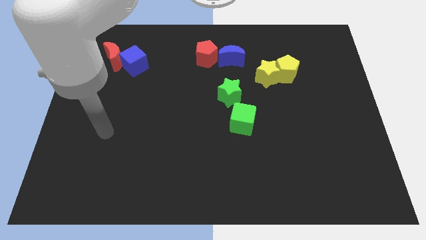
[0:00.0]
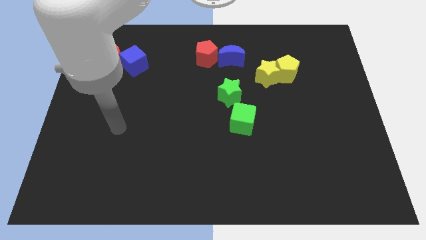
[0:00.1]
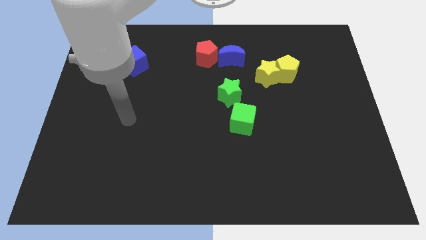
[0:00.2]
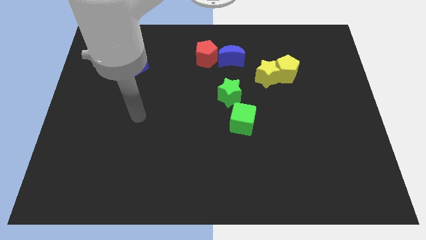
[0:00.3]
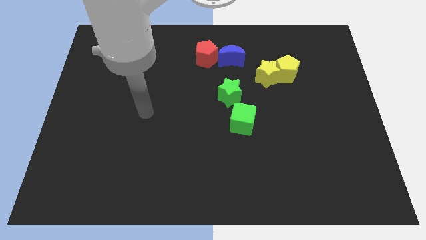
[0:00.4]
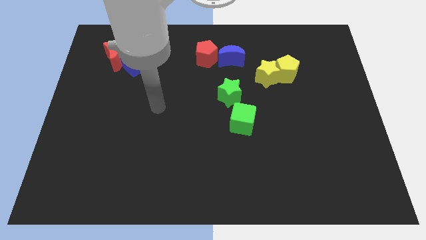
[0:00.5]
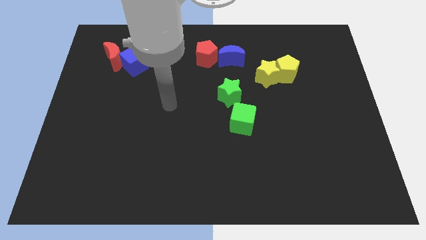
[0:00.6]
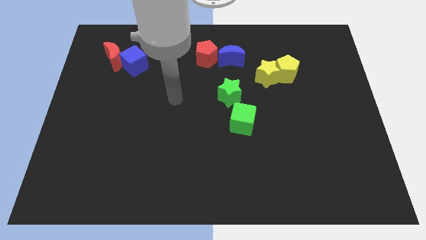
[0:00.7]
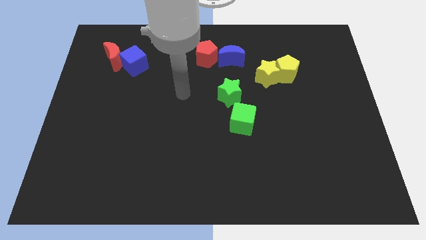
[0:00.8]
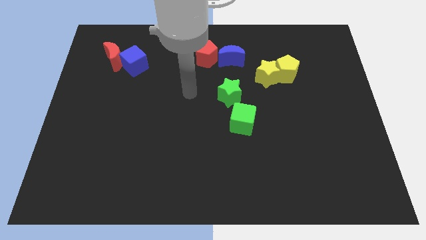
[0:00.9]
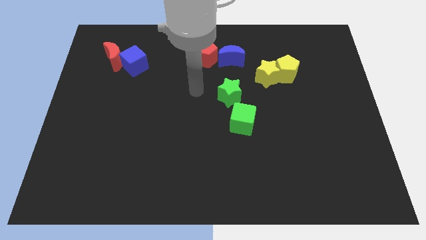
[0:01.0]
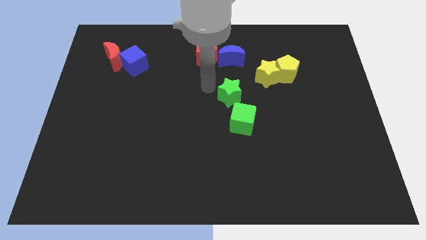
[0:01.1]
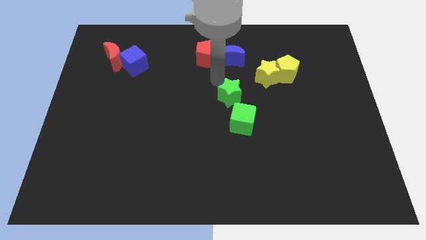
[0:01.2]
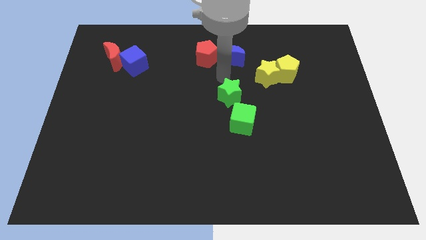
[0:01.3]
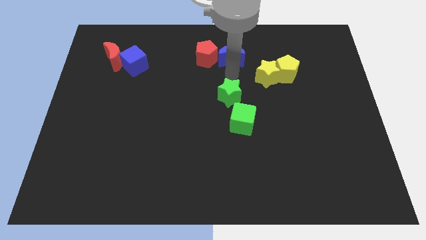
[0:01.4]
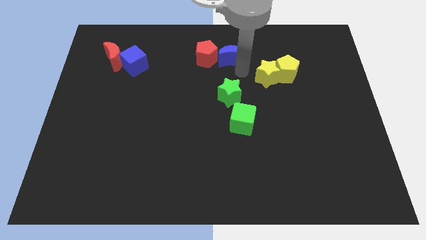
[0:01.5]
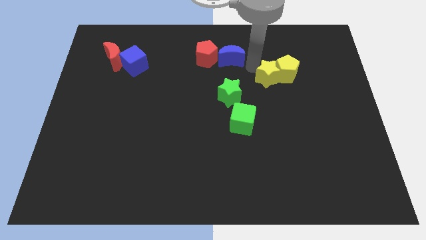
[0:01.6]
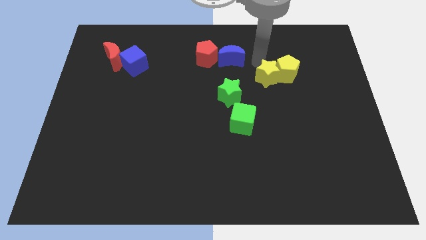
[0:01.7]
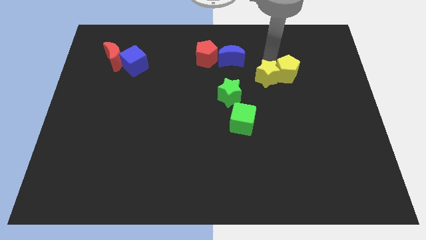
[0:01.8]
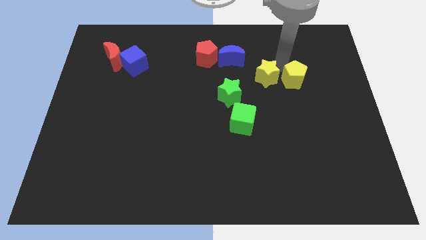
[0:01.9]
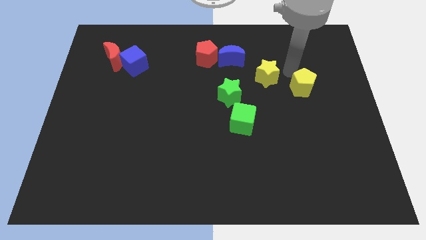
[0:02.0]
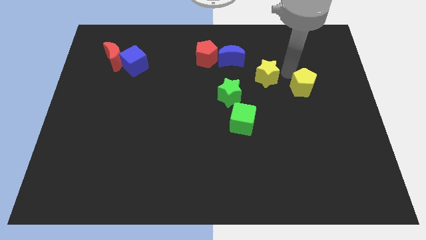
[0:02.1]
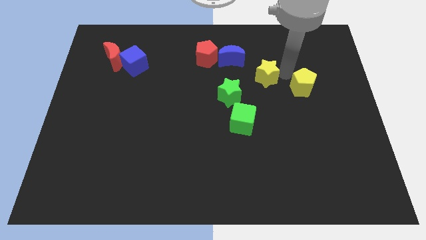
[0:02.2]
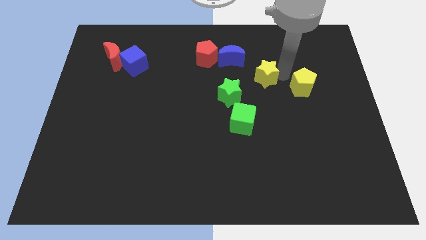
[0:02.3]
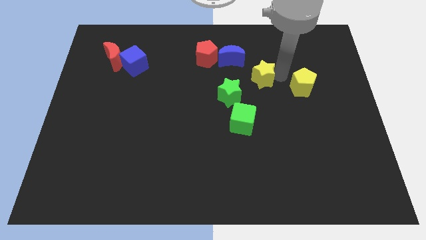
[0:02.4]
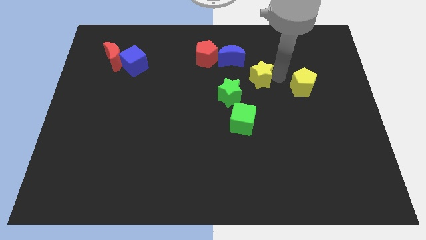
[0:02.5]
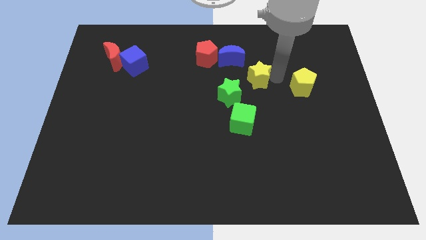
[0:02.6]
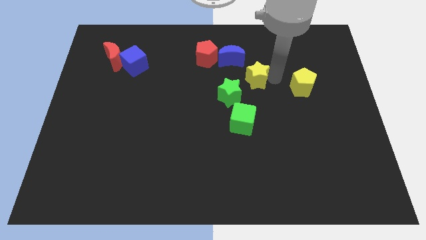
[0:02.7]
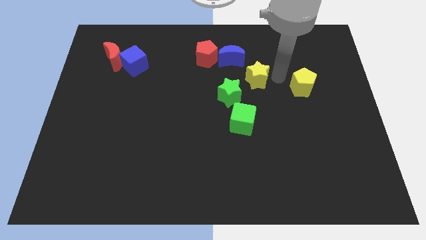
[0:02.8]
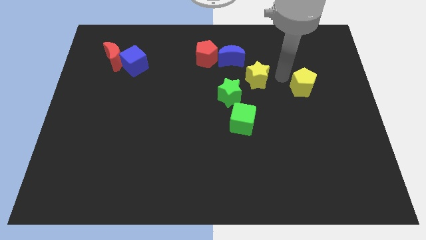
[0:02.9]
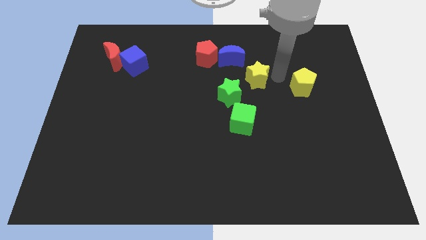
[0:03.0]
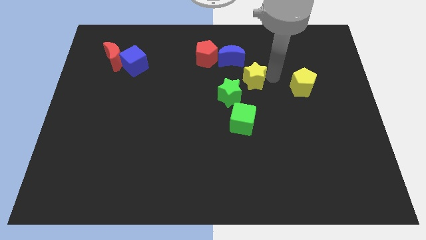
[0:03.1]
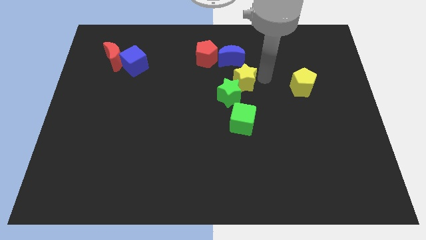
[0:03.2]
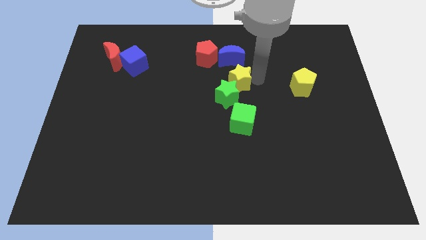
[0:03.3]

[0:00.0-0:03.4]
slightly move the yellow star left

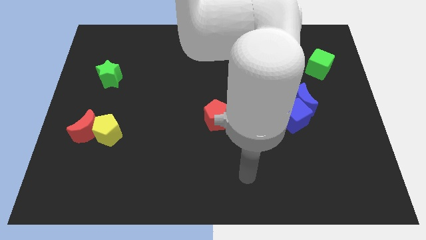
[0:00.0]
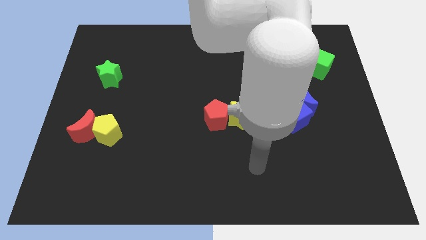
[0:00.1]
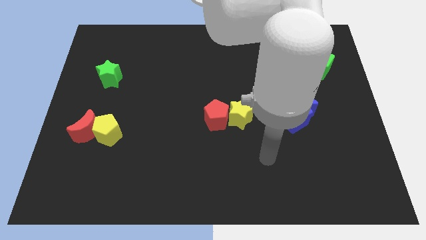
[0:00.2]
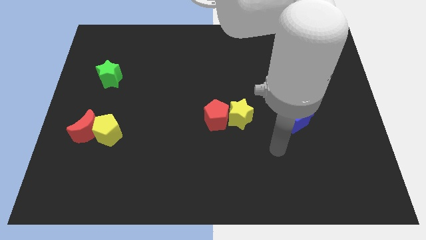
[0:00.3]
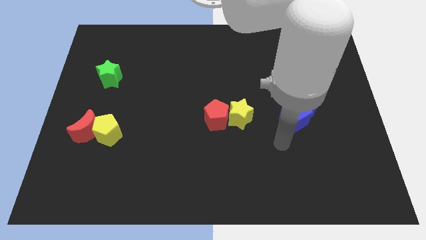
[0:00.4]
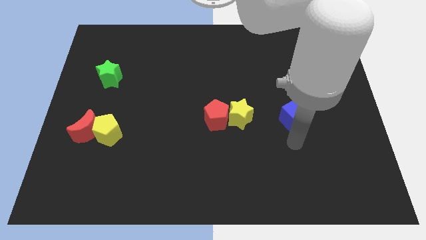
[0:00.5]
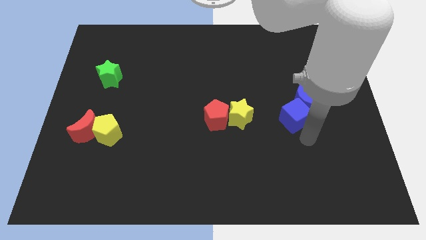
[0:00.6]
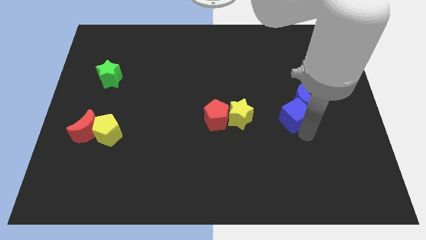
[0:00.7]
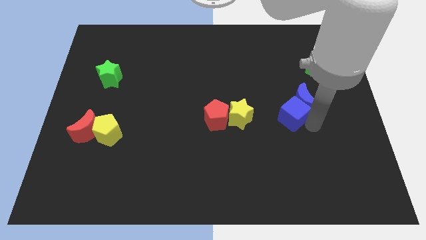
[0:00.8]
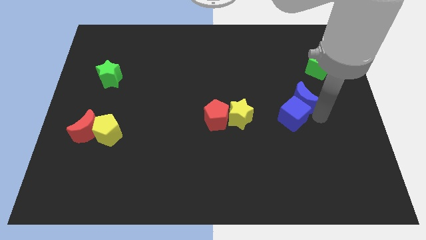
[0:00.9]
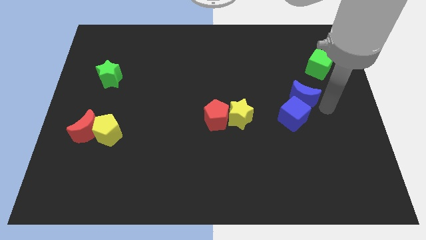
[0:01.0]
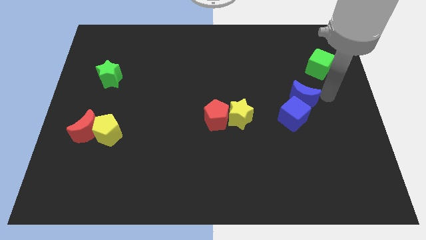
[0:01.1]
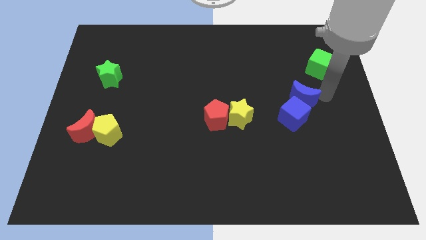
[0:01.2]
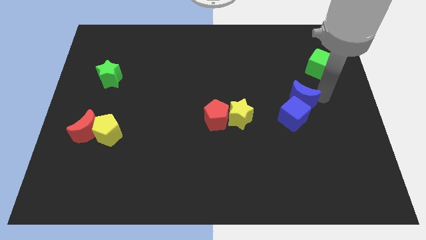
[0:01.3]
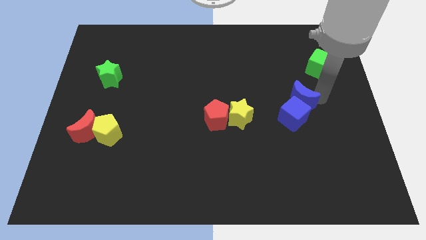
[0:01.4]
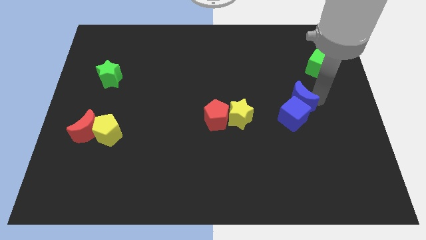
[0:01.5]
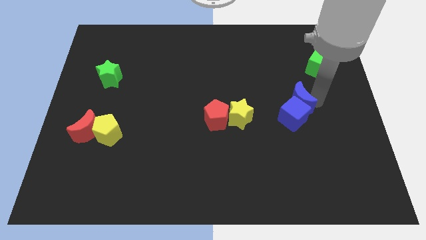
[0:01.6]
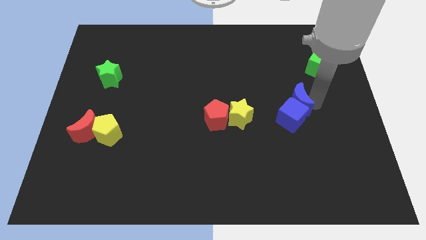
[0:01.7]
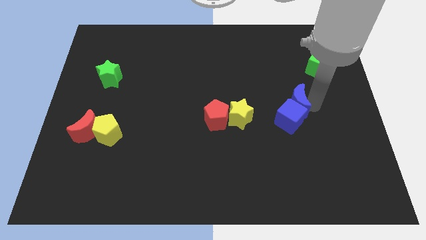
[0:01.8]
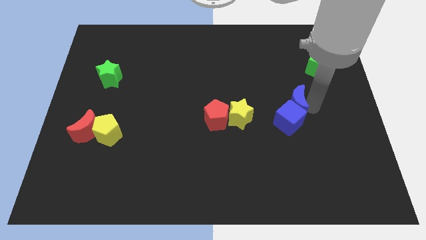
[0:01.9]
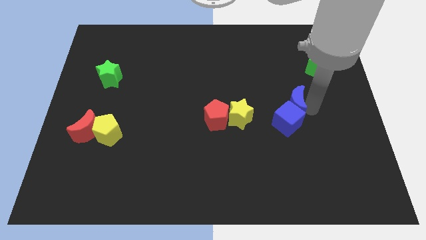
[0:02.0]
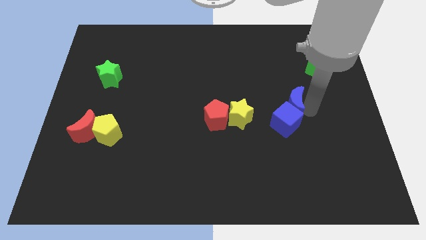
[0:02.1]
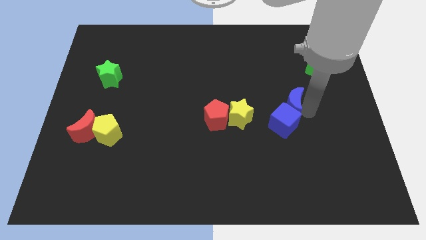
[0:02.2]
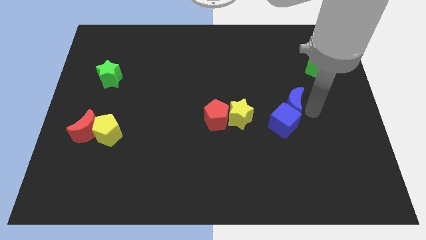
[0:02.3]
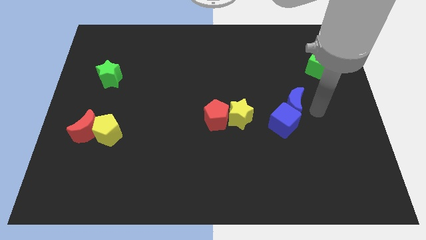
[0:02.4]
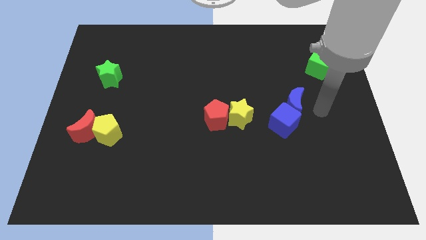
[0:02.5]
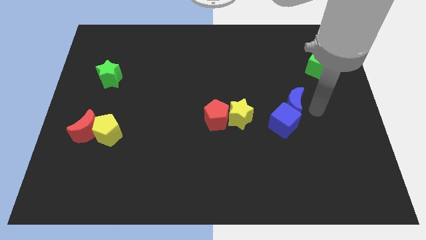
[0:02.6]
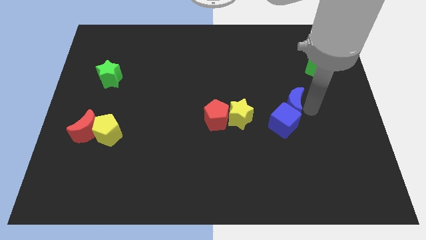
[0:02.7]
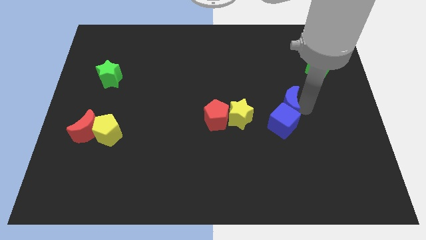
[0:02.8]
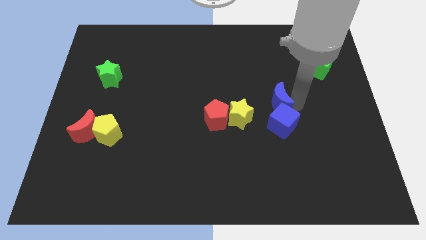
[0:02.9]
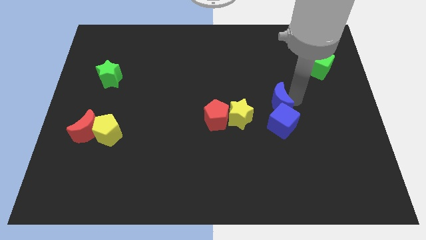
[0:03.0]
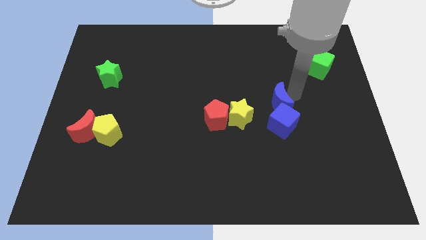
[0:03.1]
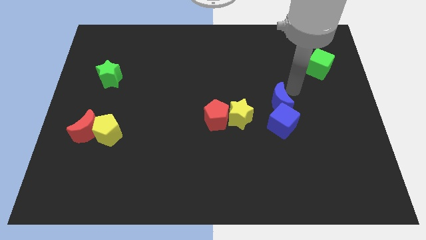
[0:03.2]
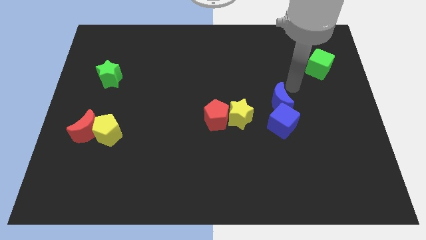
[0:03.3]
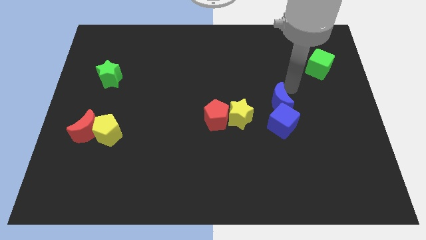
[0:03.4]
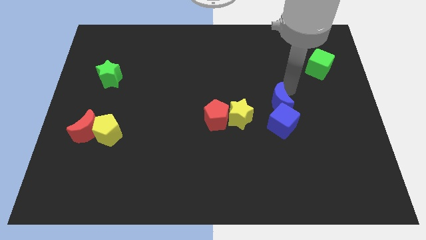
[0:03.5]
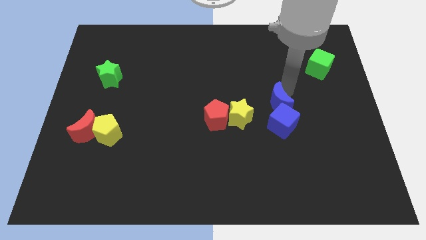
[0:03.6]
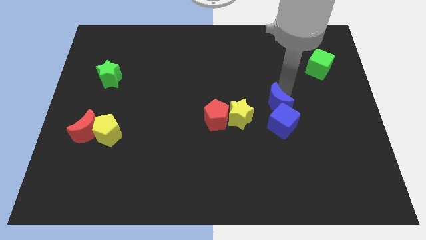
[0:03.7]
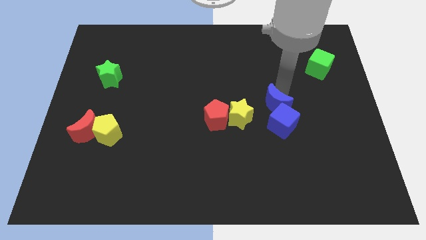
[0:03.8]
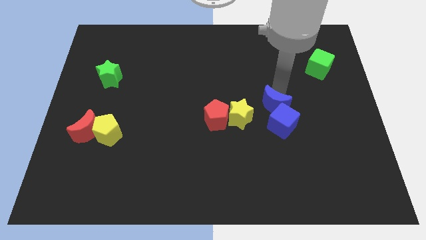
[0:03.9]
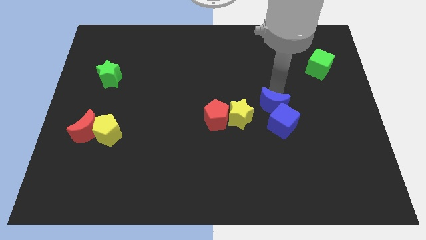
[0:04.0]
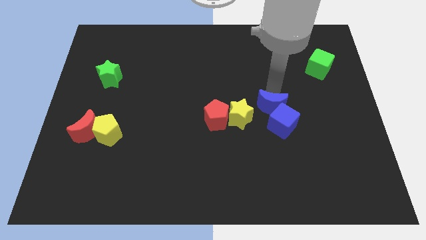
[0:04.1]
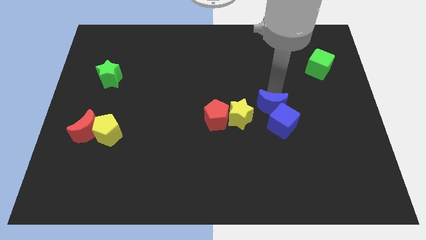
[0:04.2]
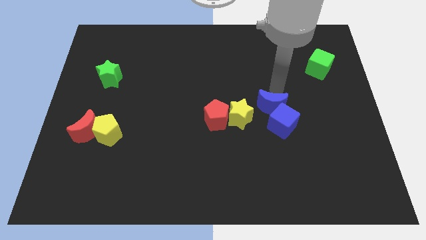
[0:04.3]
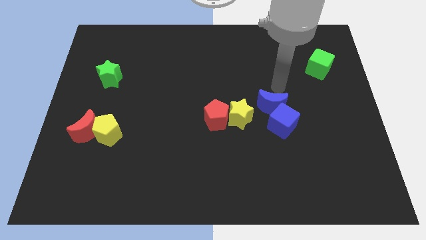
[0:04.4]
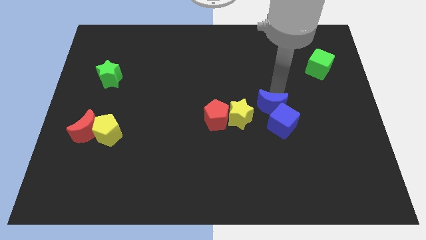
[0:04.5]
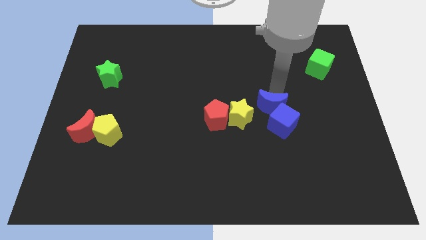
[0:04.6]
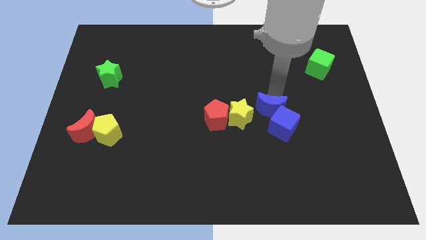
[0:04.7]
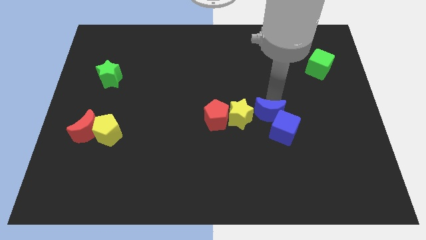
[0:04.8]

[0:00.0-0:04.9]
push the blue moon a bit down and to the left diagonally

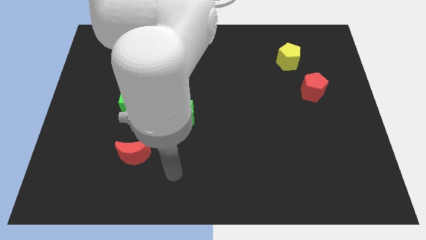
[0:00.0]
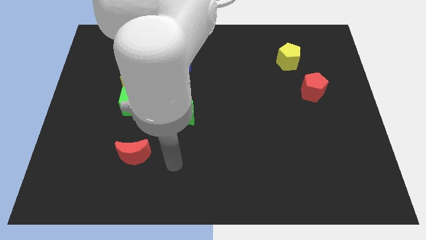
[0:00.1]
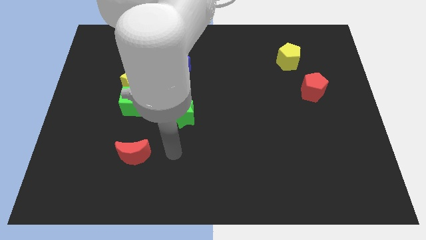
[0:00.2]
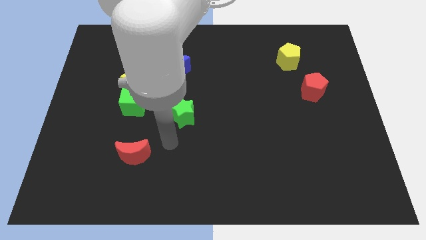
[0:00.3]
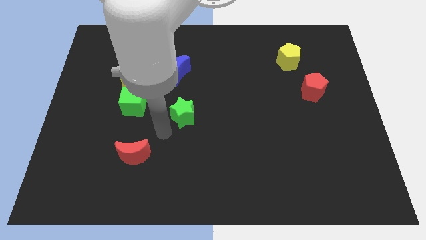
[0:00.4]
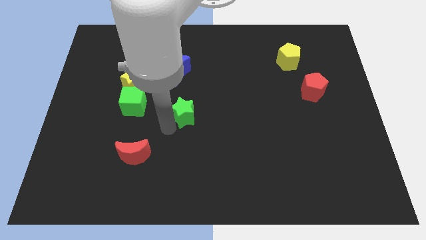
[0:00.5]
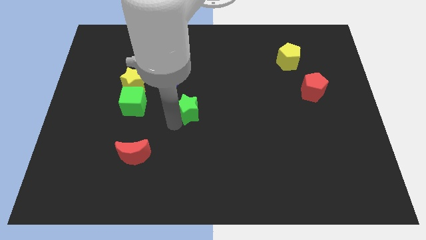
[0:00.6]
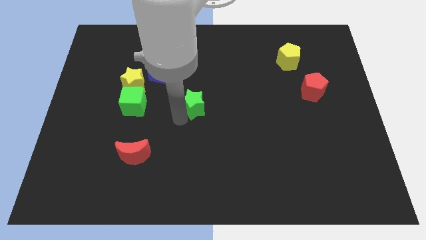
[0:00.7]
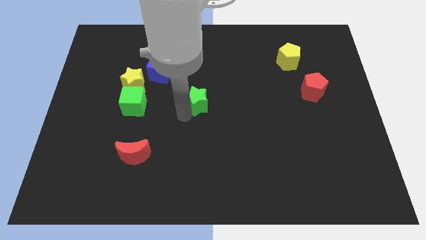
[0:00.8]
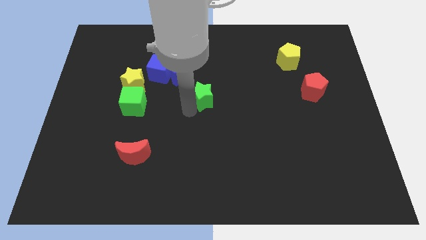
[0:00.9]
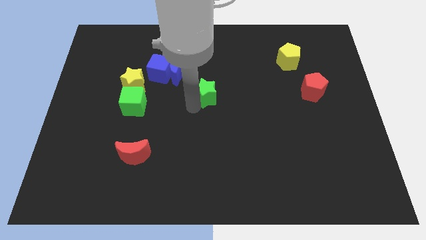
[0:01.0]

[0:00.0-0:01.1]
slightly move the green star up and right
